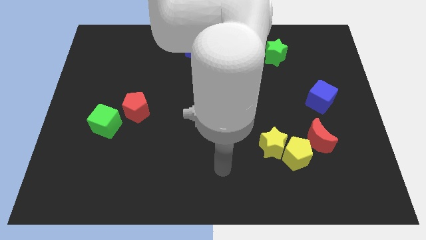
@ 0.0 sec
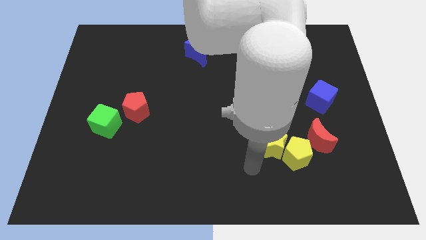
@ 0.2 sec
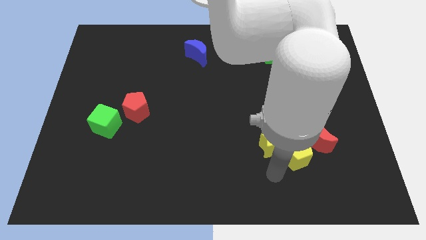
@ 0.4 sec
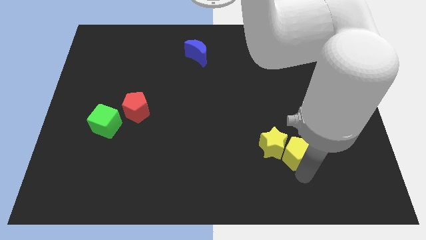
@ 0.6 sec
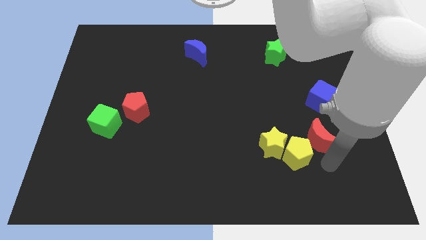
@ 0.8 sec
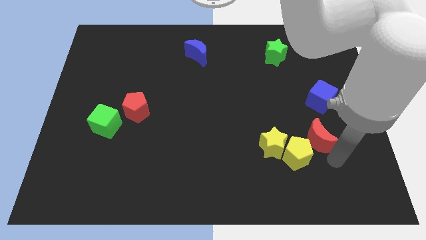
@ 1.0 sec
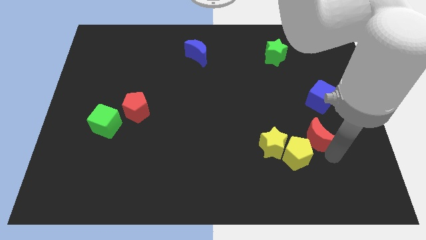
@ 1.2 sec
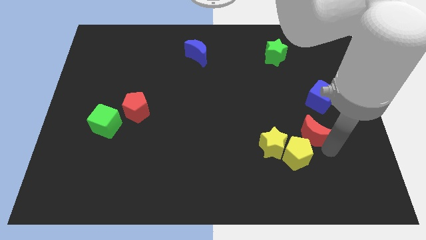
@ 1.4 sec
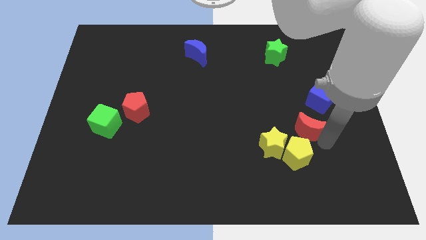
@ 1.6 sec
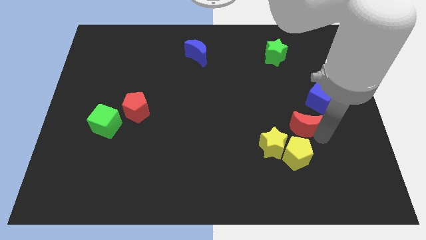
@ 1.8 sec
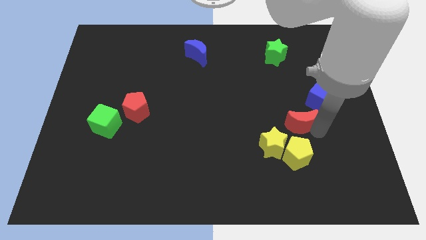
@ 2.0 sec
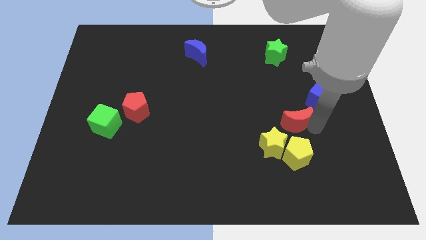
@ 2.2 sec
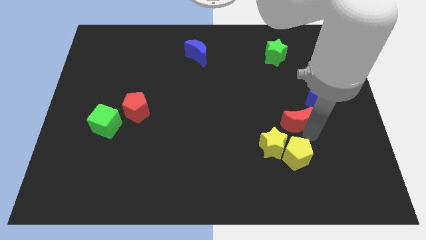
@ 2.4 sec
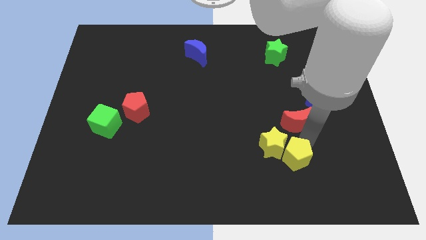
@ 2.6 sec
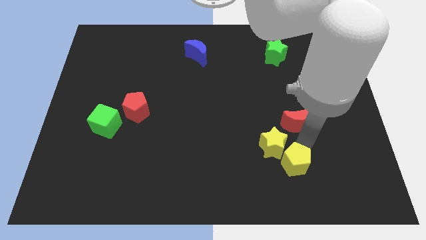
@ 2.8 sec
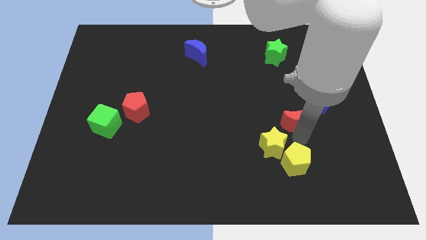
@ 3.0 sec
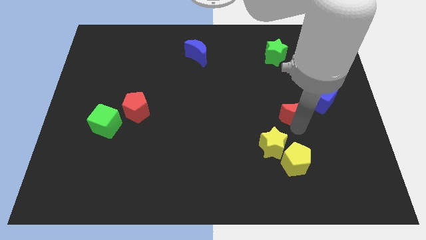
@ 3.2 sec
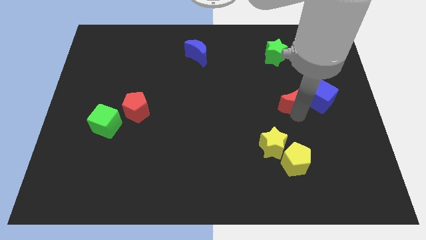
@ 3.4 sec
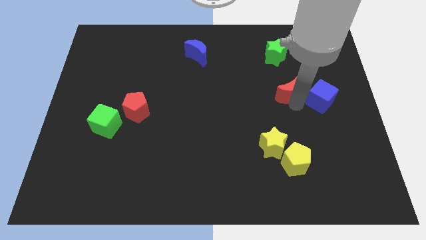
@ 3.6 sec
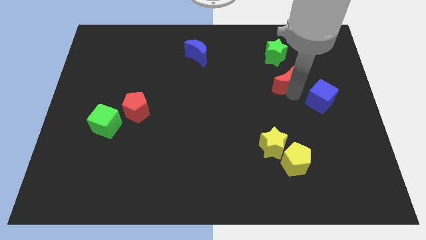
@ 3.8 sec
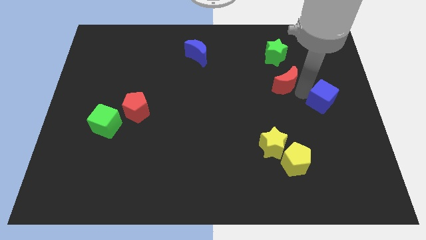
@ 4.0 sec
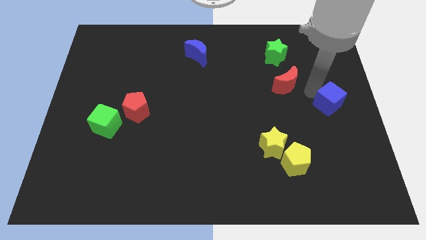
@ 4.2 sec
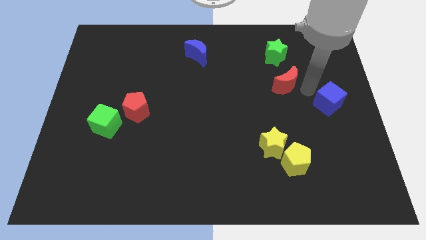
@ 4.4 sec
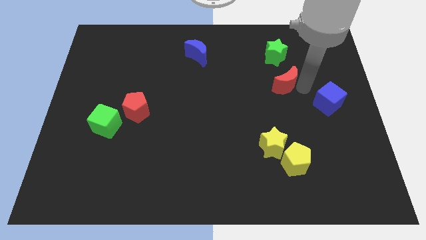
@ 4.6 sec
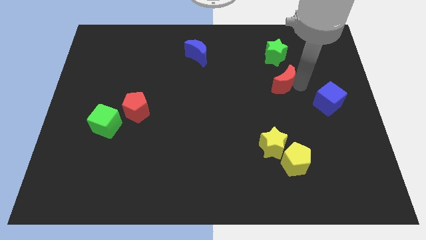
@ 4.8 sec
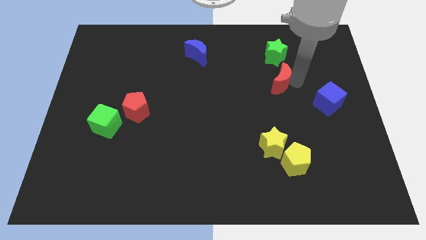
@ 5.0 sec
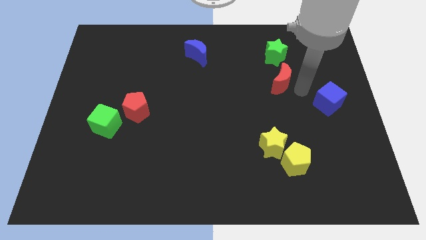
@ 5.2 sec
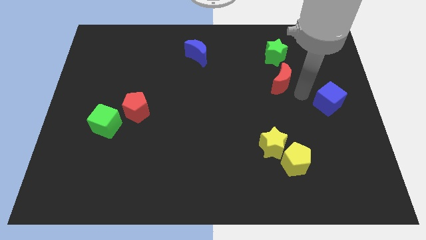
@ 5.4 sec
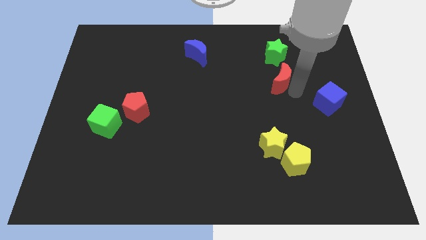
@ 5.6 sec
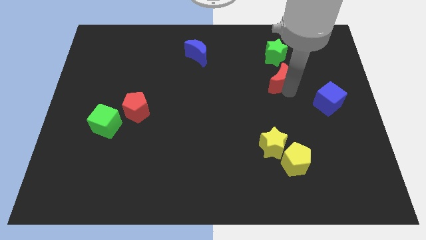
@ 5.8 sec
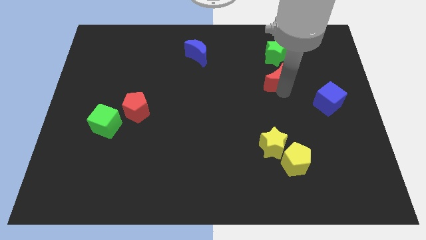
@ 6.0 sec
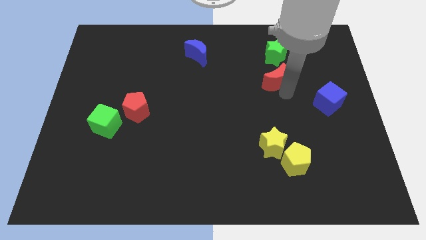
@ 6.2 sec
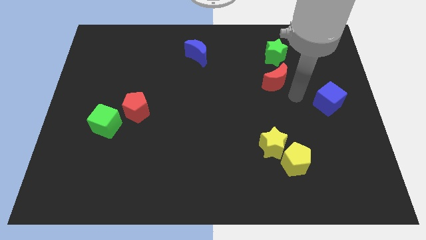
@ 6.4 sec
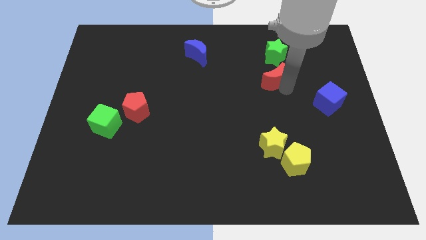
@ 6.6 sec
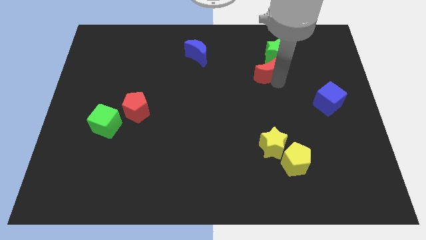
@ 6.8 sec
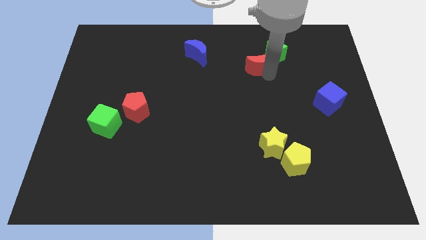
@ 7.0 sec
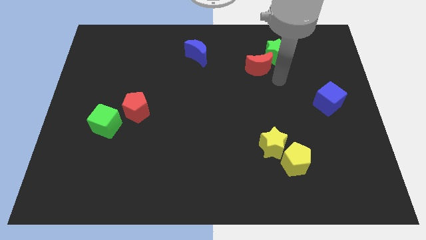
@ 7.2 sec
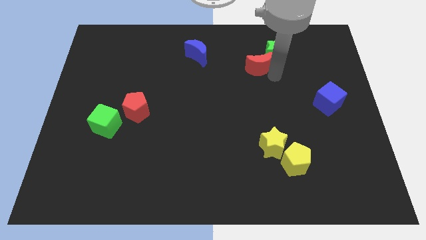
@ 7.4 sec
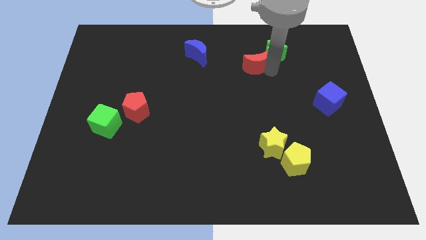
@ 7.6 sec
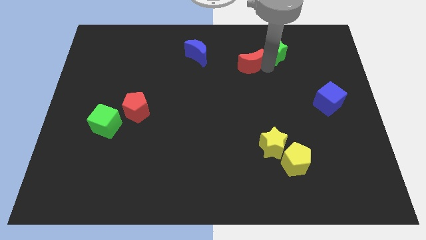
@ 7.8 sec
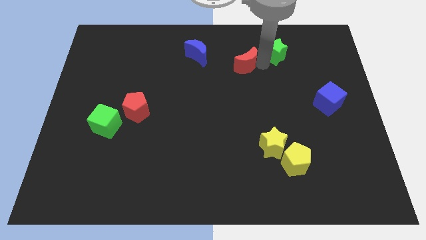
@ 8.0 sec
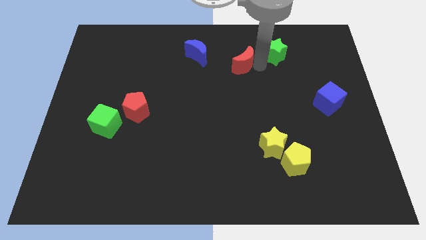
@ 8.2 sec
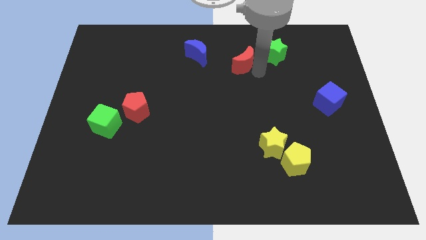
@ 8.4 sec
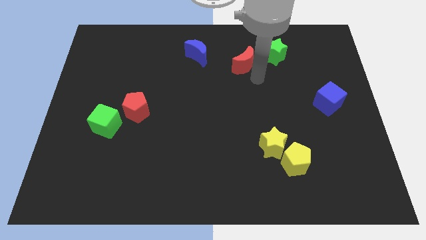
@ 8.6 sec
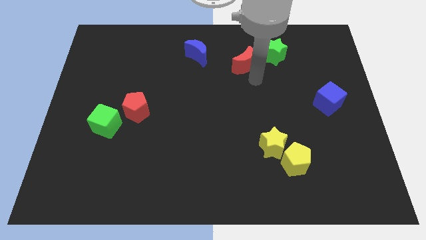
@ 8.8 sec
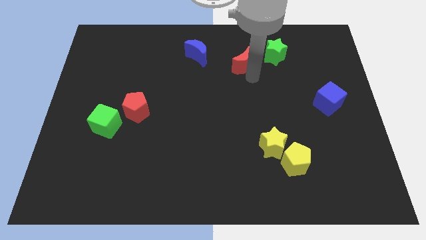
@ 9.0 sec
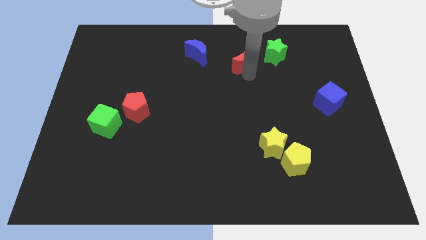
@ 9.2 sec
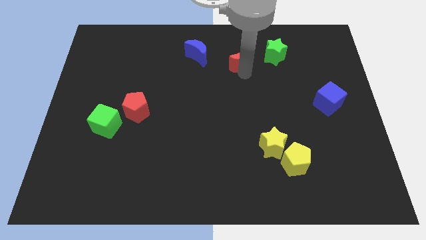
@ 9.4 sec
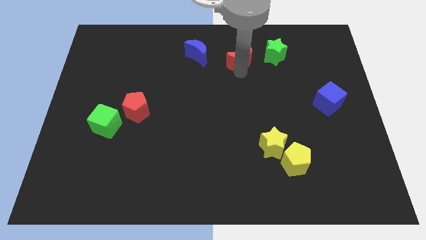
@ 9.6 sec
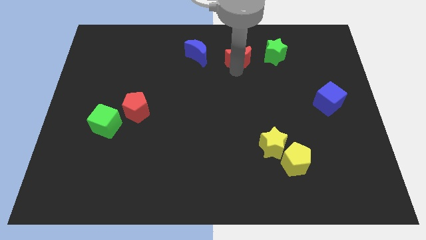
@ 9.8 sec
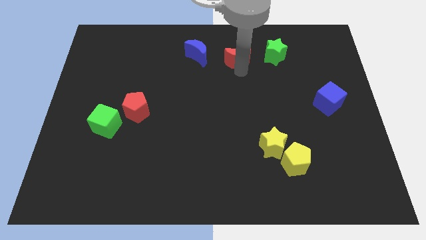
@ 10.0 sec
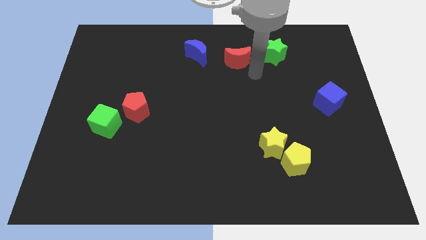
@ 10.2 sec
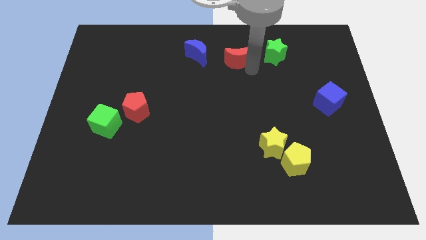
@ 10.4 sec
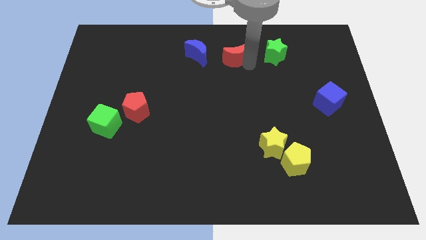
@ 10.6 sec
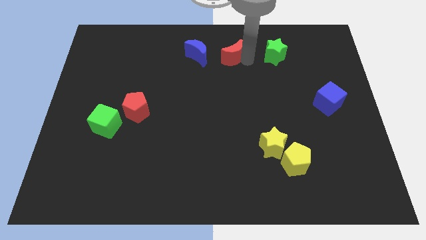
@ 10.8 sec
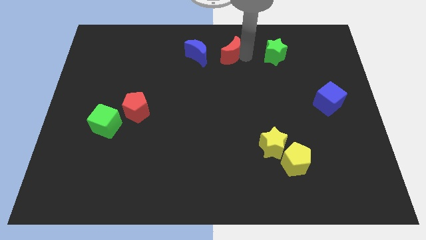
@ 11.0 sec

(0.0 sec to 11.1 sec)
put the red moon to the towards your base
